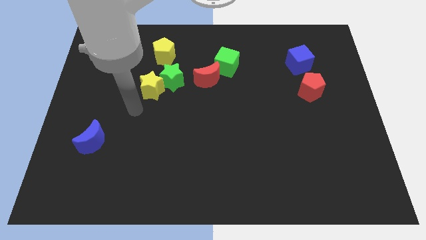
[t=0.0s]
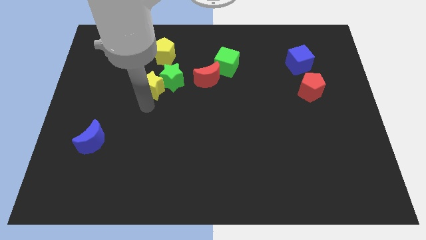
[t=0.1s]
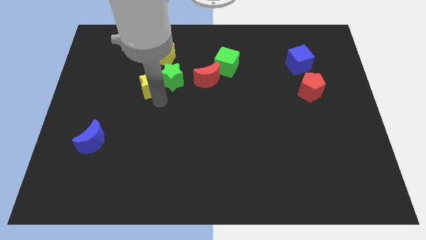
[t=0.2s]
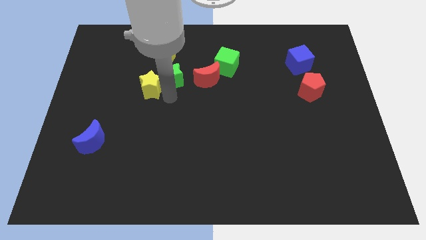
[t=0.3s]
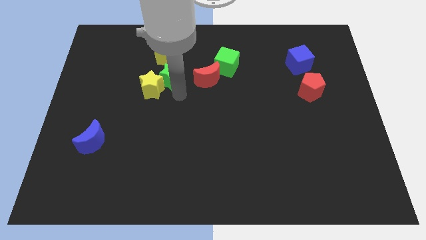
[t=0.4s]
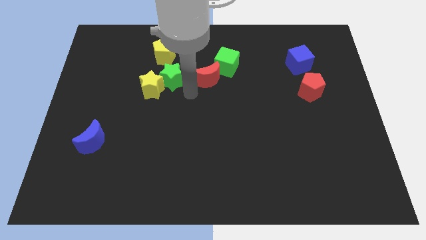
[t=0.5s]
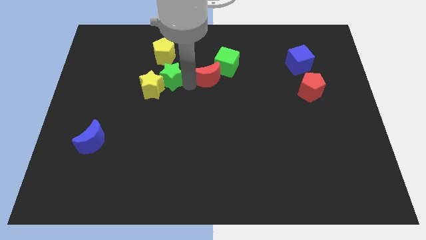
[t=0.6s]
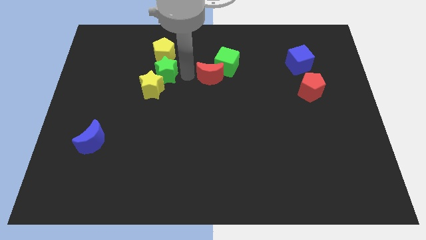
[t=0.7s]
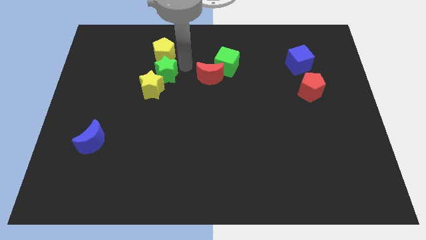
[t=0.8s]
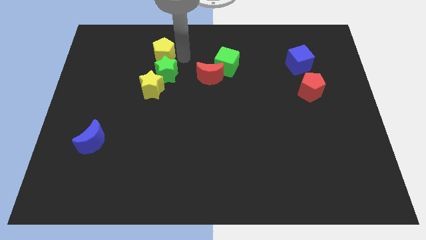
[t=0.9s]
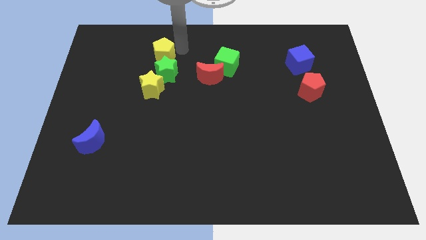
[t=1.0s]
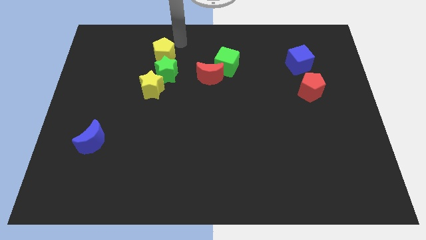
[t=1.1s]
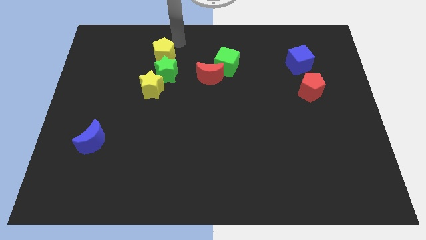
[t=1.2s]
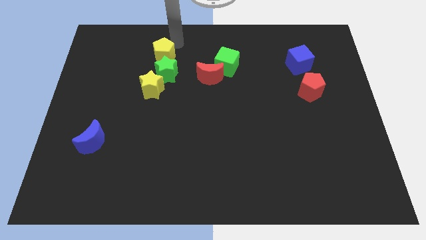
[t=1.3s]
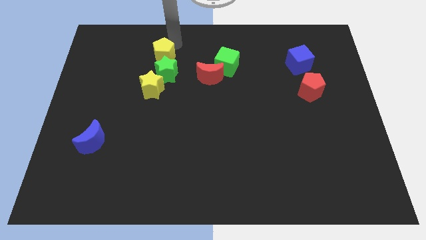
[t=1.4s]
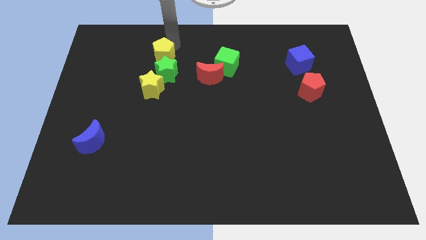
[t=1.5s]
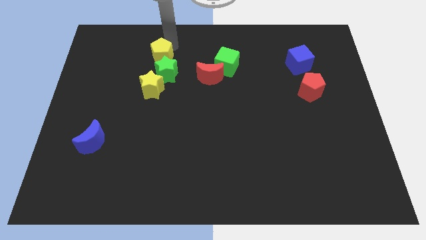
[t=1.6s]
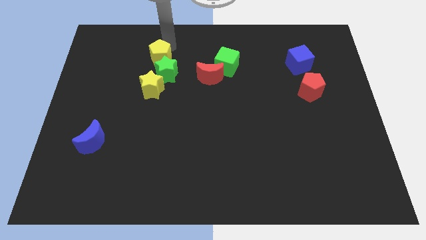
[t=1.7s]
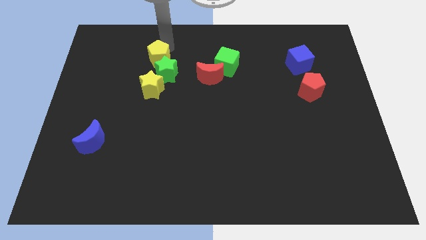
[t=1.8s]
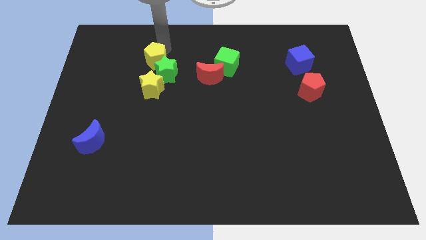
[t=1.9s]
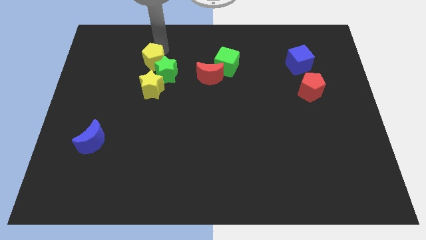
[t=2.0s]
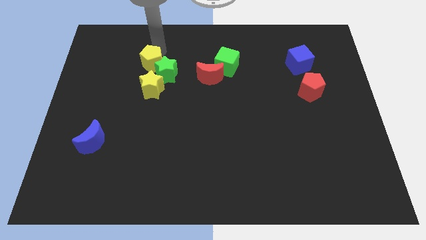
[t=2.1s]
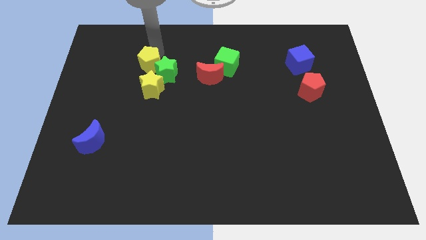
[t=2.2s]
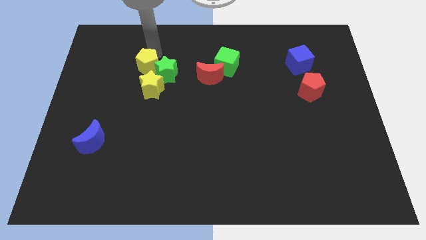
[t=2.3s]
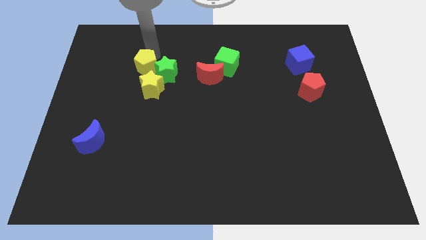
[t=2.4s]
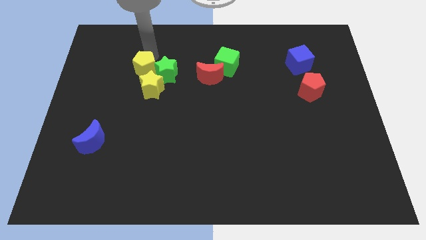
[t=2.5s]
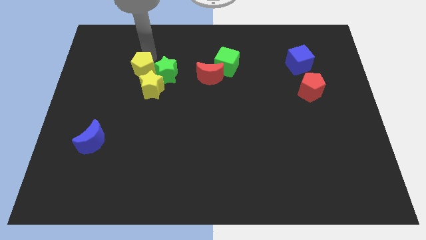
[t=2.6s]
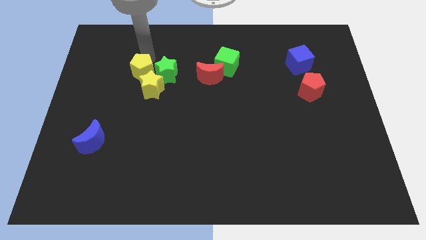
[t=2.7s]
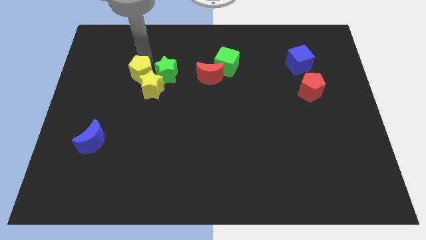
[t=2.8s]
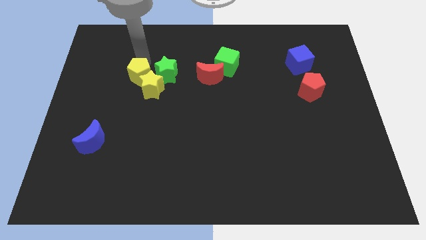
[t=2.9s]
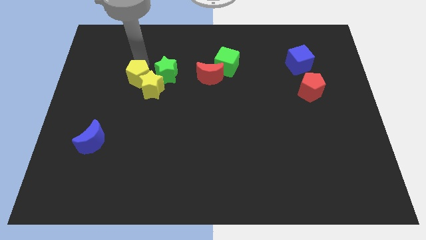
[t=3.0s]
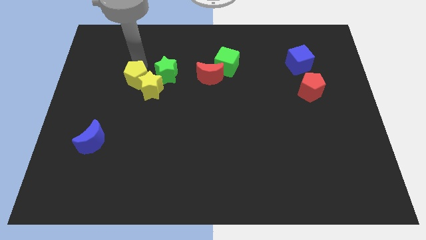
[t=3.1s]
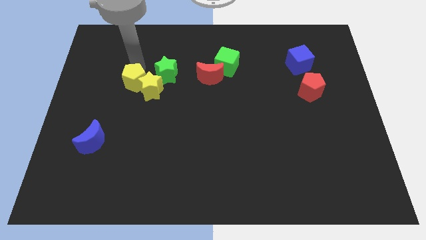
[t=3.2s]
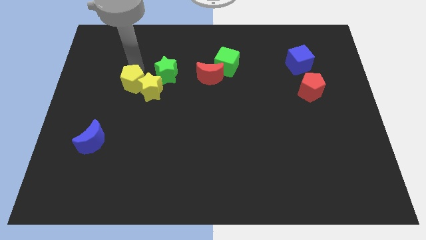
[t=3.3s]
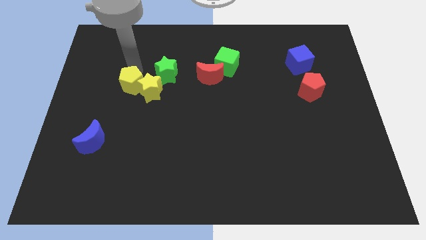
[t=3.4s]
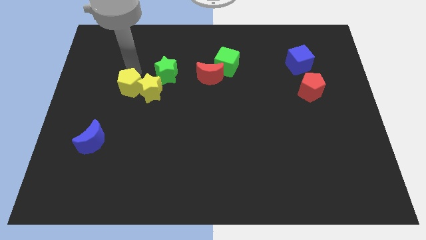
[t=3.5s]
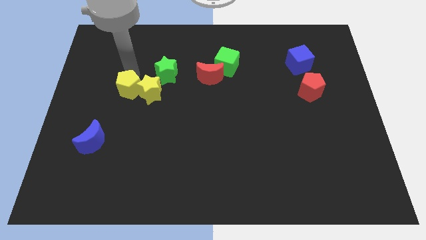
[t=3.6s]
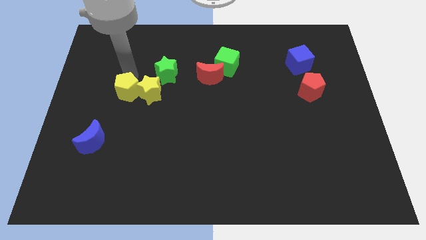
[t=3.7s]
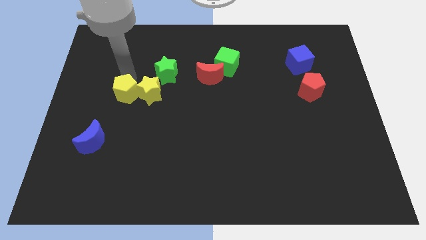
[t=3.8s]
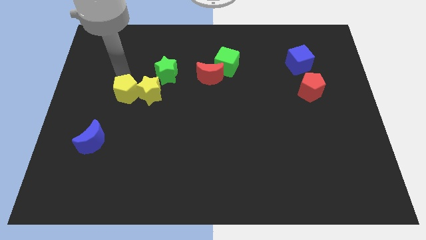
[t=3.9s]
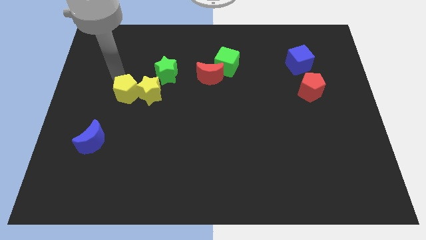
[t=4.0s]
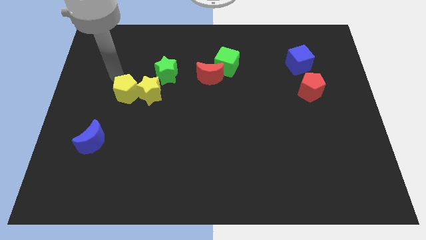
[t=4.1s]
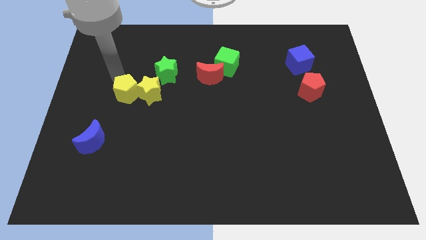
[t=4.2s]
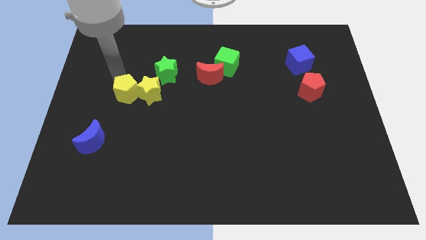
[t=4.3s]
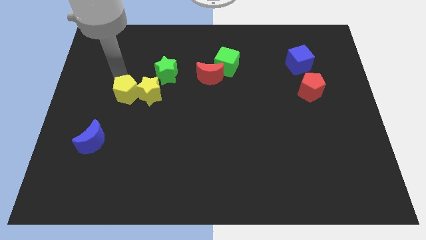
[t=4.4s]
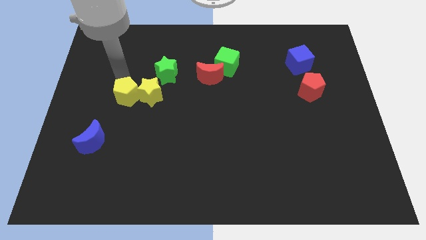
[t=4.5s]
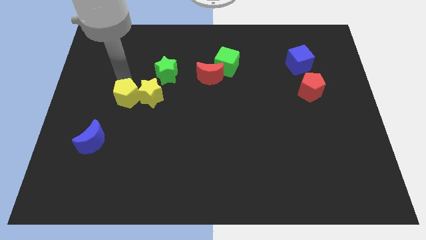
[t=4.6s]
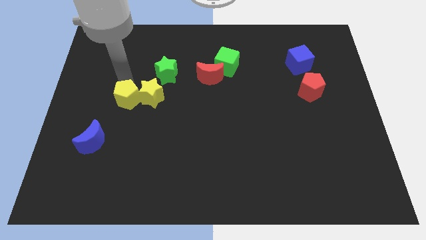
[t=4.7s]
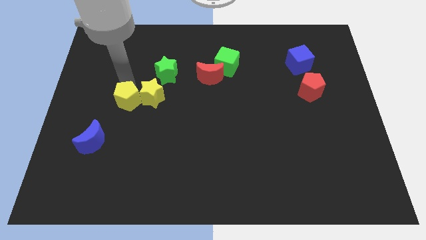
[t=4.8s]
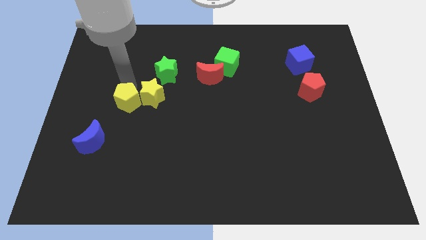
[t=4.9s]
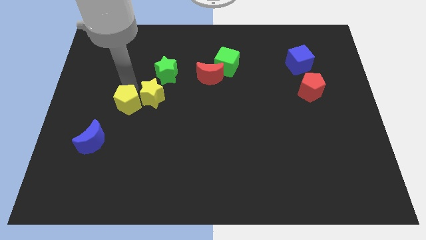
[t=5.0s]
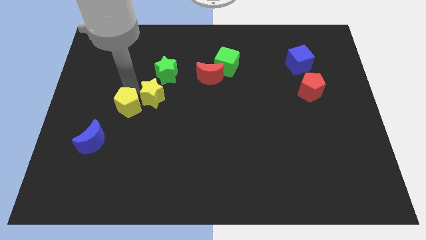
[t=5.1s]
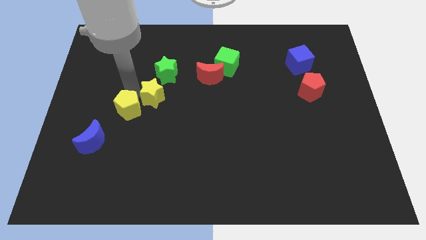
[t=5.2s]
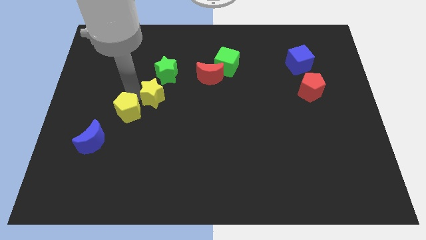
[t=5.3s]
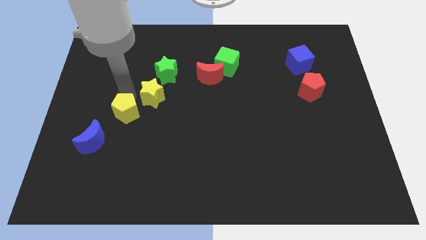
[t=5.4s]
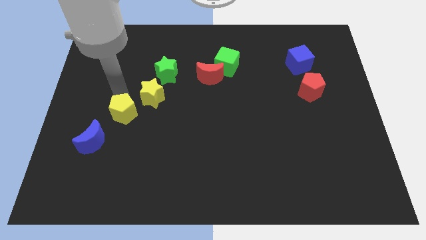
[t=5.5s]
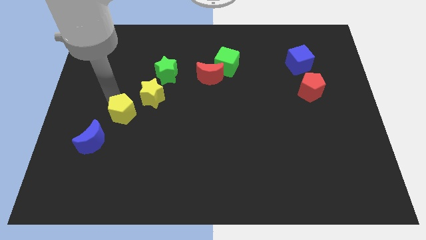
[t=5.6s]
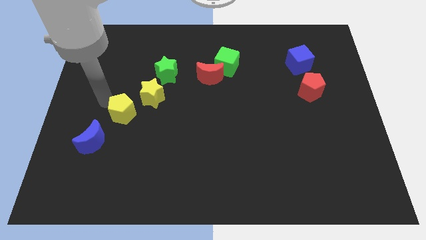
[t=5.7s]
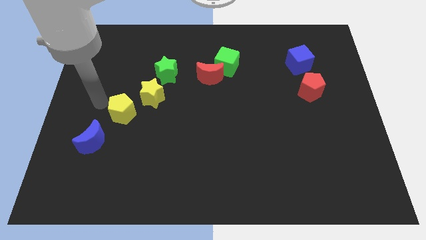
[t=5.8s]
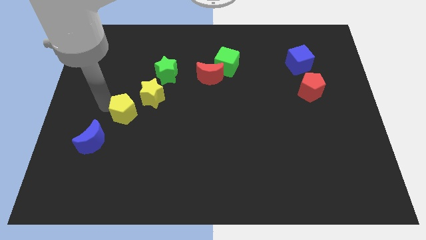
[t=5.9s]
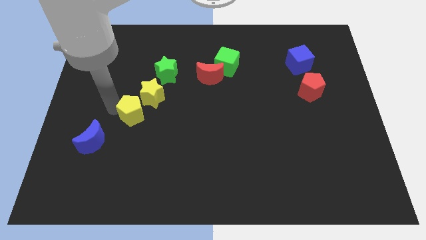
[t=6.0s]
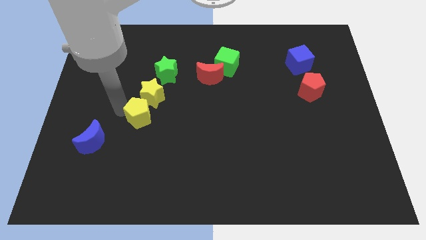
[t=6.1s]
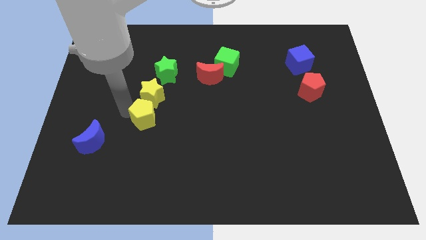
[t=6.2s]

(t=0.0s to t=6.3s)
push the yellow pentagon down

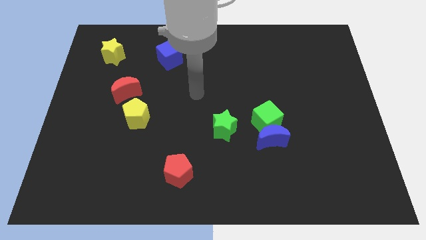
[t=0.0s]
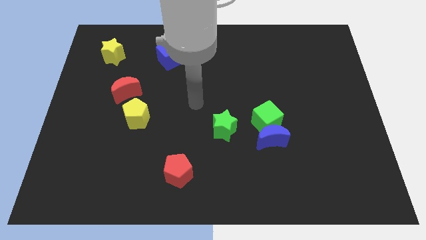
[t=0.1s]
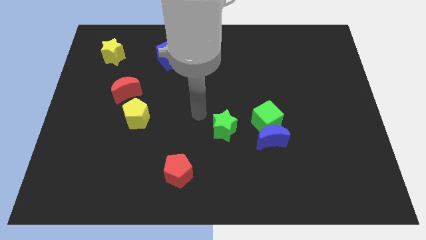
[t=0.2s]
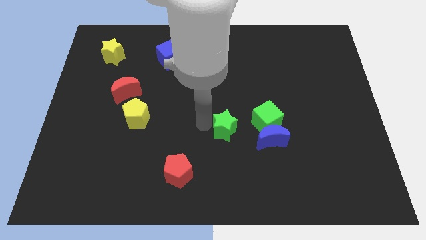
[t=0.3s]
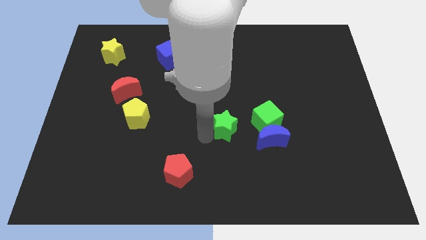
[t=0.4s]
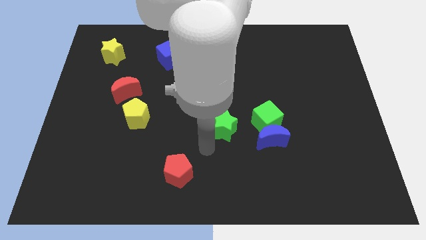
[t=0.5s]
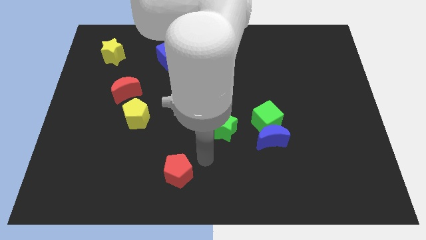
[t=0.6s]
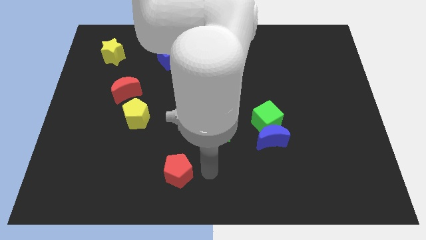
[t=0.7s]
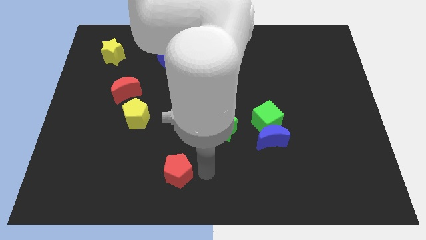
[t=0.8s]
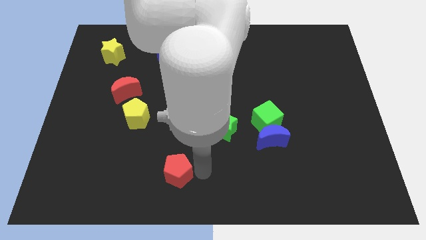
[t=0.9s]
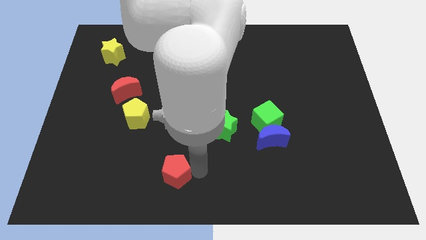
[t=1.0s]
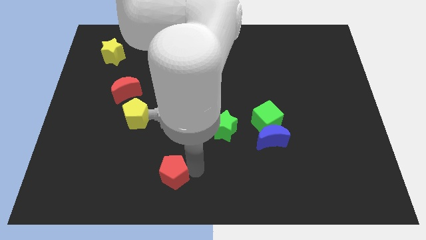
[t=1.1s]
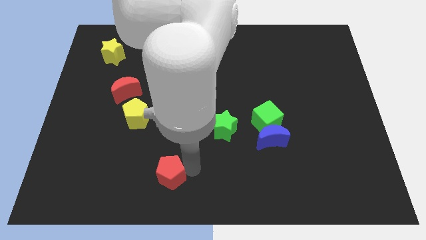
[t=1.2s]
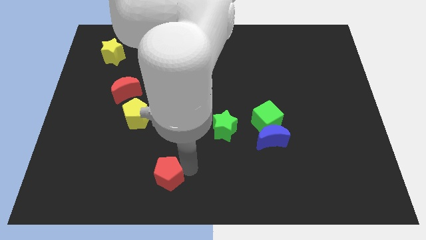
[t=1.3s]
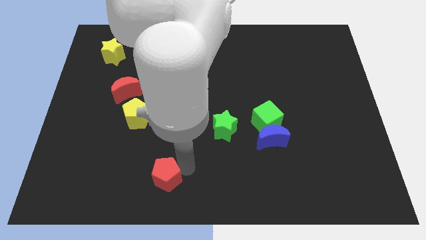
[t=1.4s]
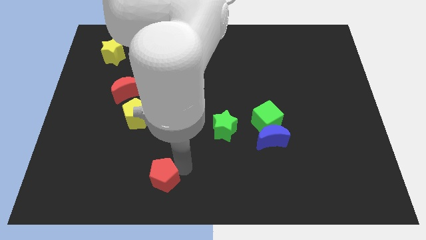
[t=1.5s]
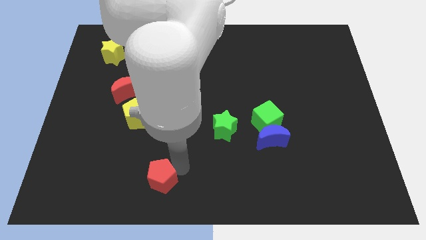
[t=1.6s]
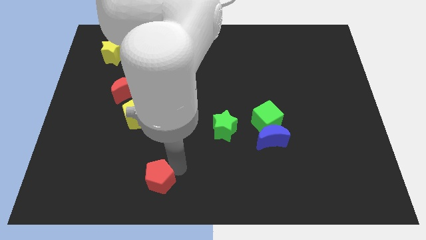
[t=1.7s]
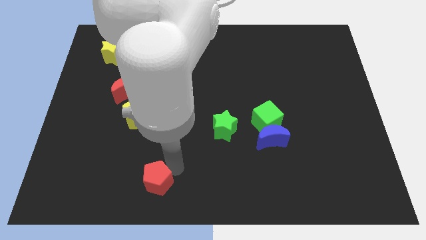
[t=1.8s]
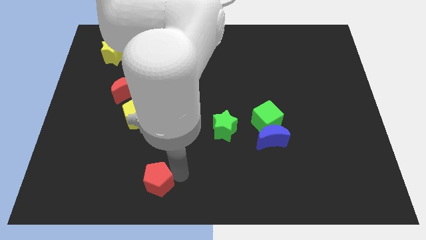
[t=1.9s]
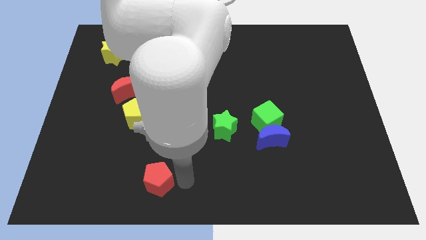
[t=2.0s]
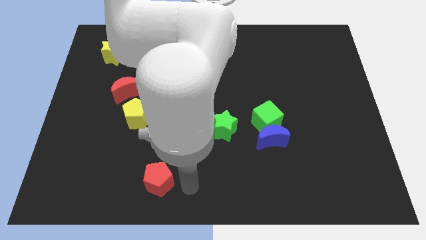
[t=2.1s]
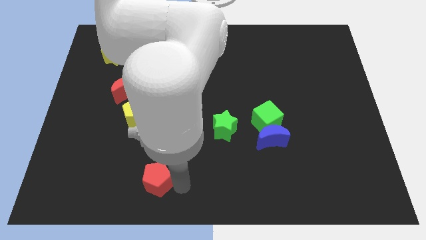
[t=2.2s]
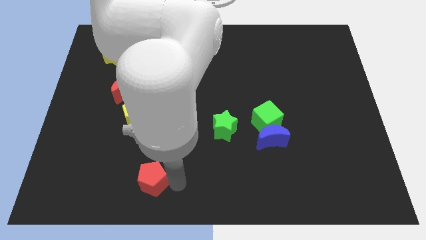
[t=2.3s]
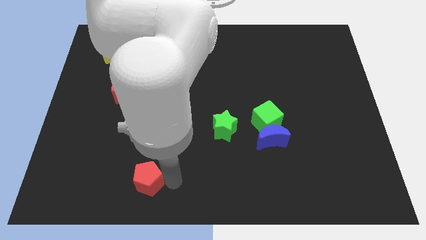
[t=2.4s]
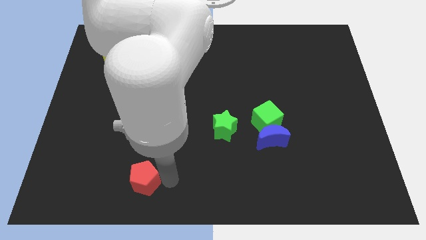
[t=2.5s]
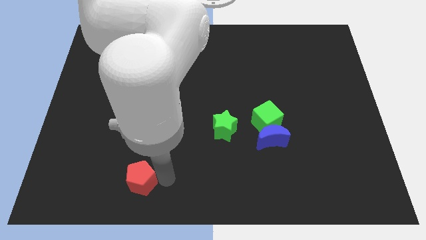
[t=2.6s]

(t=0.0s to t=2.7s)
slide the red pentagon a bit to the left
